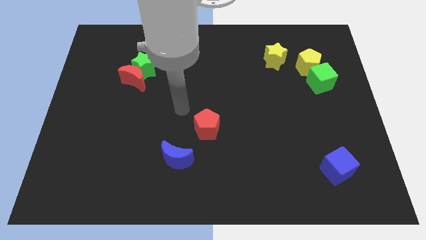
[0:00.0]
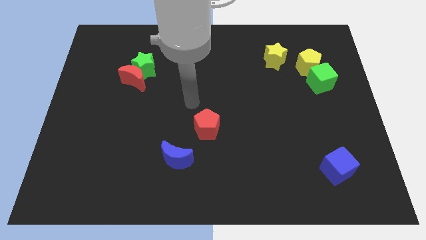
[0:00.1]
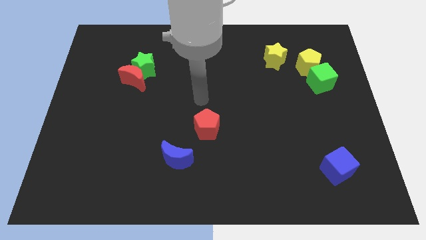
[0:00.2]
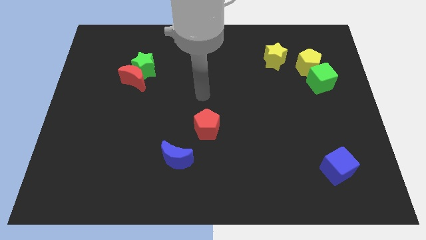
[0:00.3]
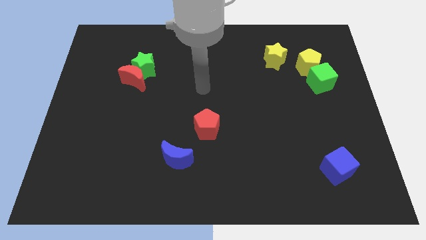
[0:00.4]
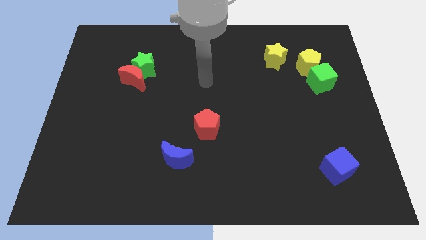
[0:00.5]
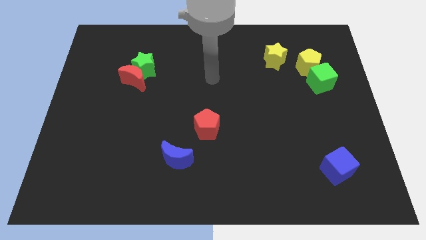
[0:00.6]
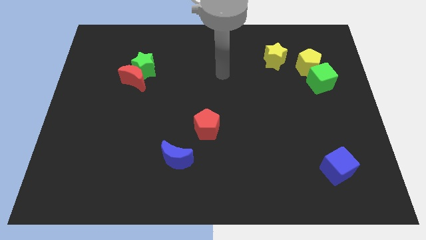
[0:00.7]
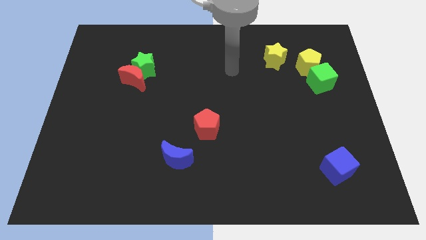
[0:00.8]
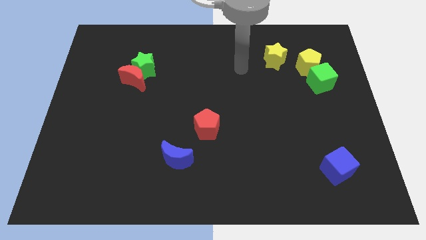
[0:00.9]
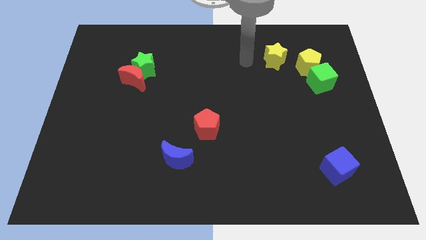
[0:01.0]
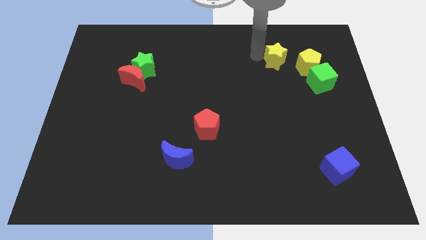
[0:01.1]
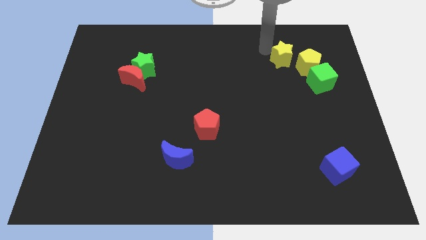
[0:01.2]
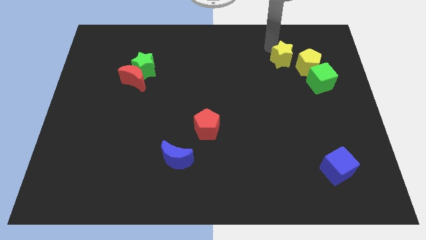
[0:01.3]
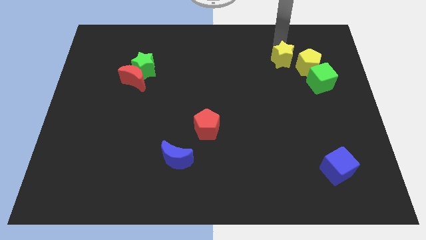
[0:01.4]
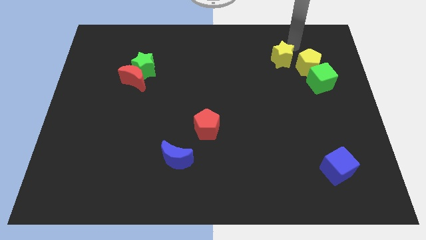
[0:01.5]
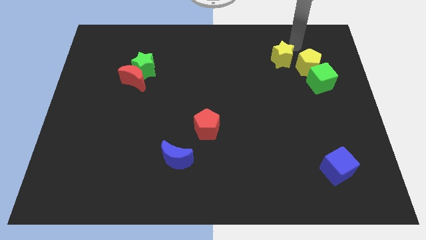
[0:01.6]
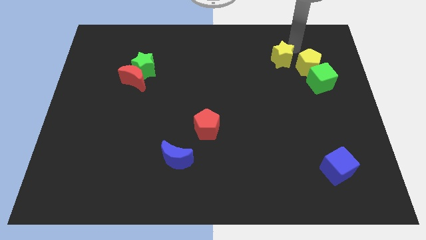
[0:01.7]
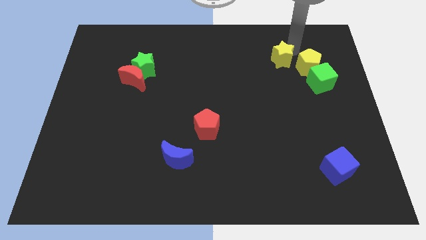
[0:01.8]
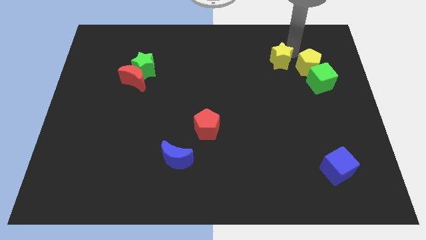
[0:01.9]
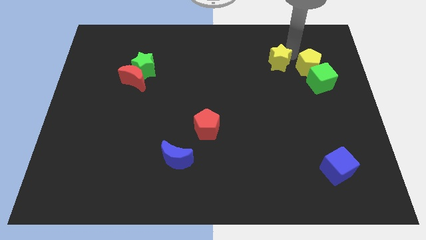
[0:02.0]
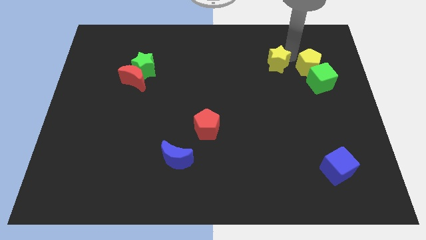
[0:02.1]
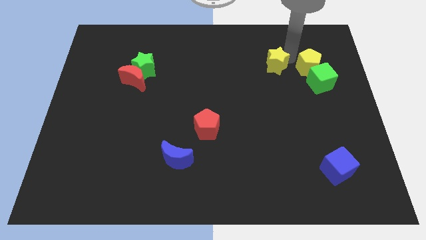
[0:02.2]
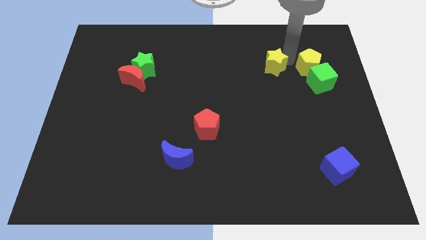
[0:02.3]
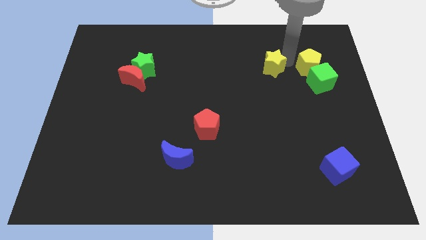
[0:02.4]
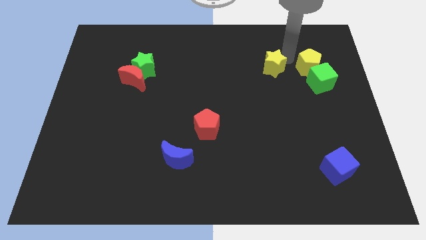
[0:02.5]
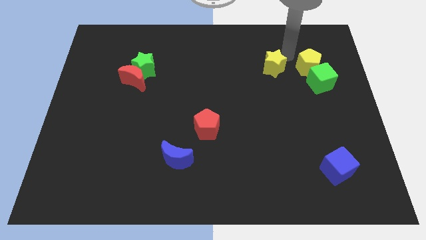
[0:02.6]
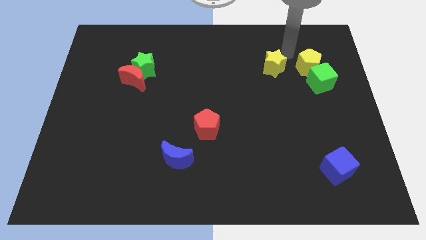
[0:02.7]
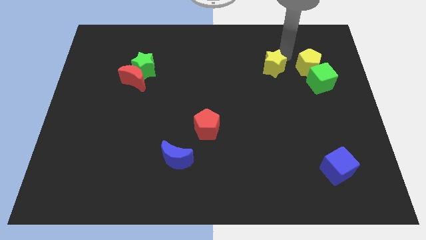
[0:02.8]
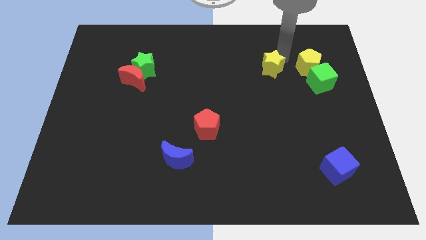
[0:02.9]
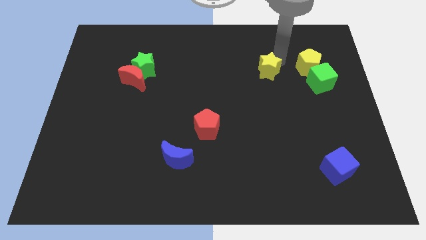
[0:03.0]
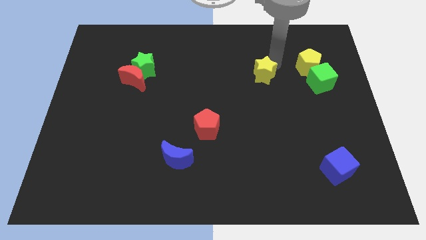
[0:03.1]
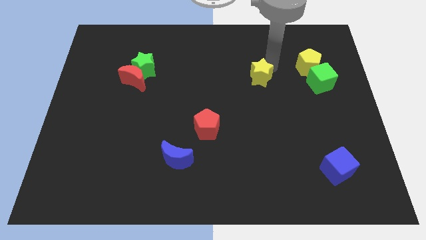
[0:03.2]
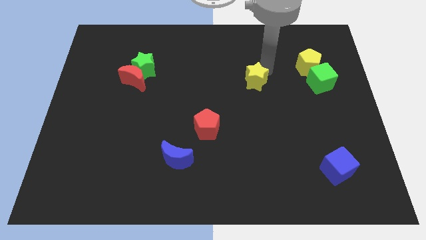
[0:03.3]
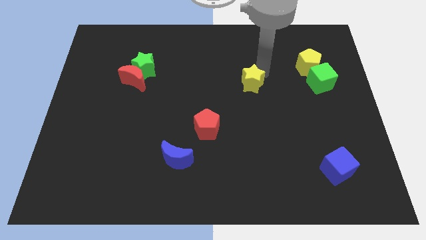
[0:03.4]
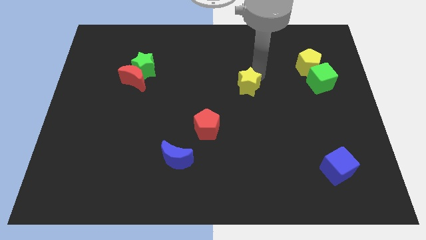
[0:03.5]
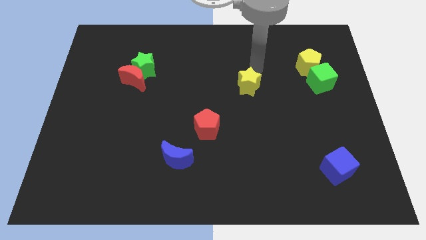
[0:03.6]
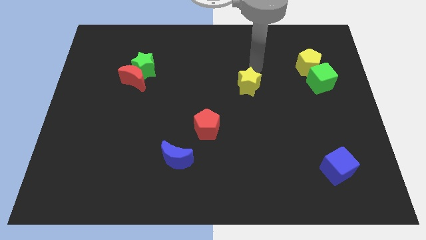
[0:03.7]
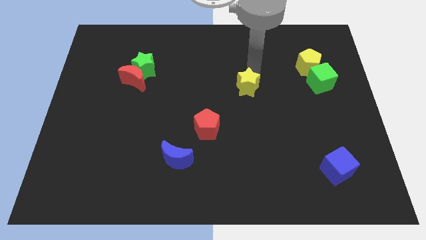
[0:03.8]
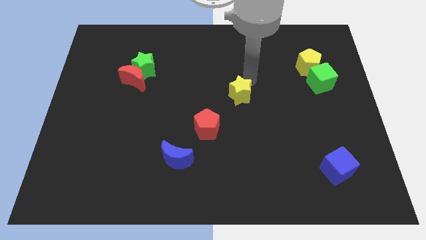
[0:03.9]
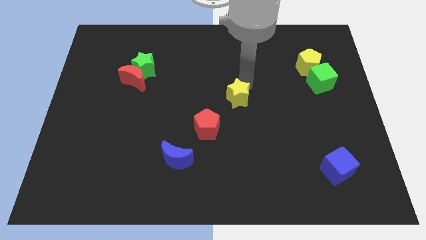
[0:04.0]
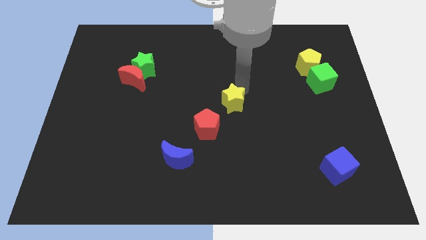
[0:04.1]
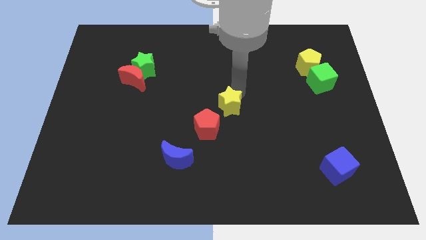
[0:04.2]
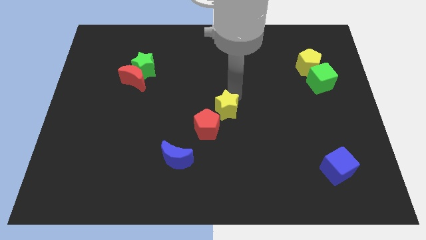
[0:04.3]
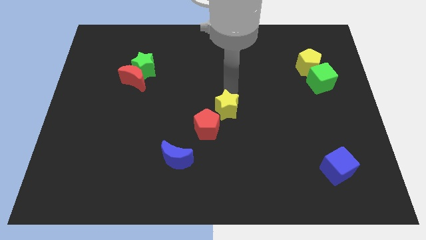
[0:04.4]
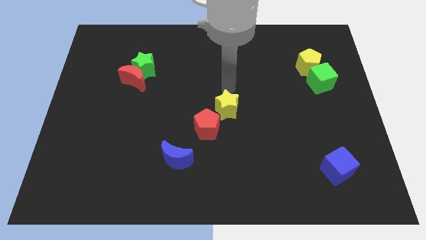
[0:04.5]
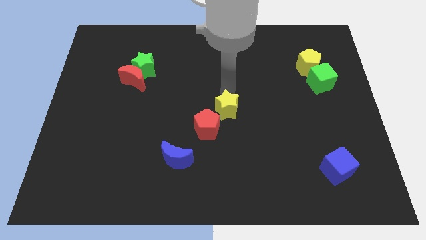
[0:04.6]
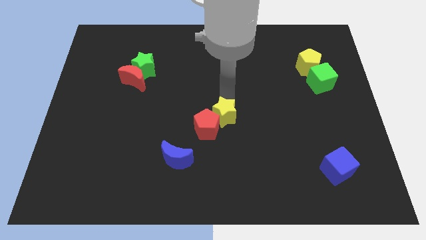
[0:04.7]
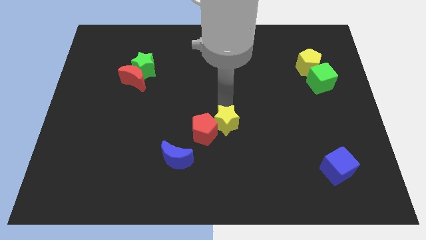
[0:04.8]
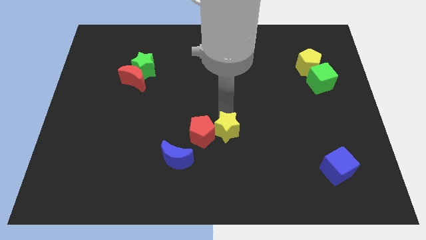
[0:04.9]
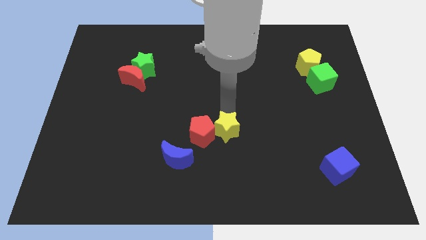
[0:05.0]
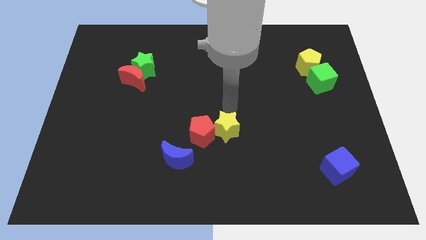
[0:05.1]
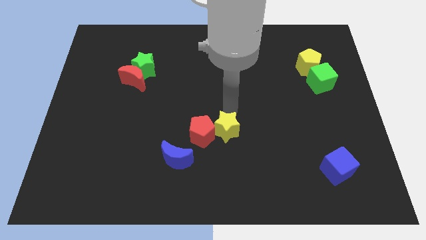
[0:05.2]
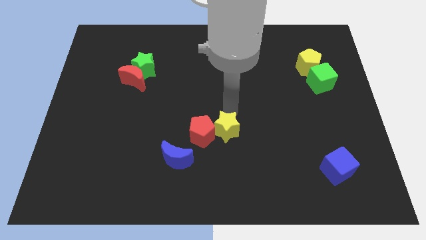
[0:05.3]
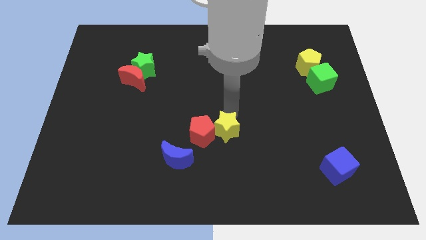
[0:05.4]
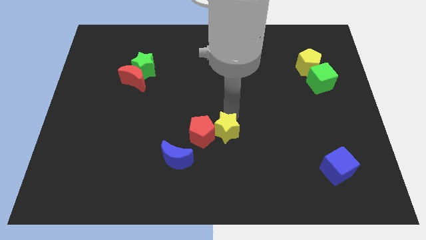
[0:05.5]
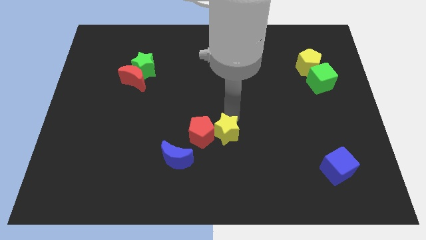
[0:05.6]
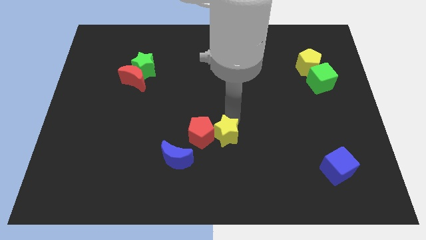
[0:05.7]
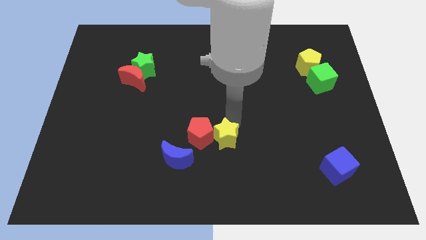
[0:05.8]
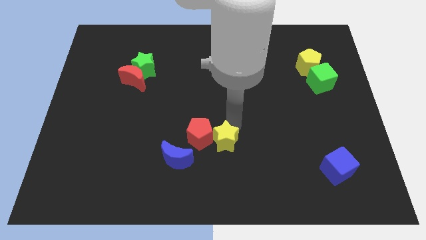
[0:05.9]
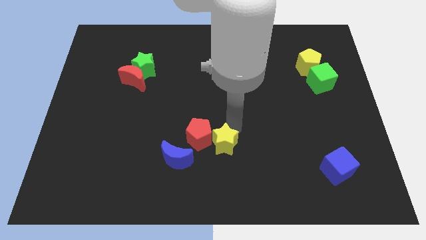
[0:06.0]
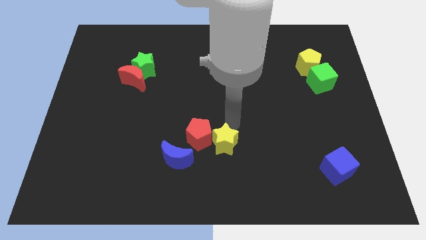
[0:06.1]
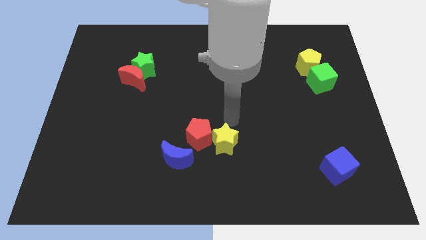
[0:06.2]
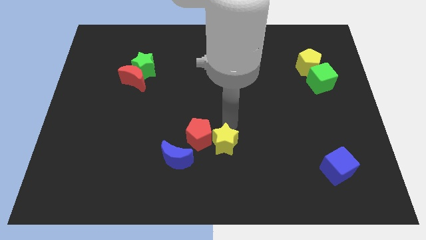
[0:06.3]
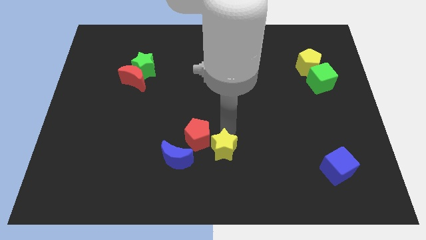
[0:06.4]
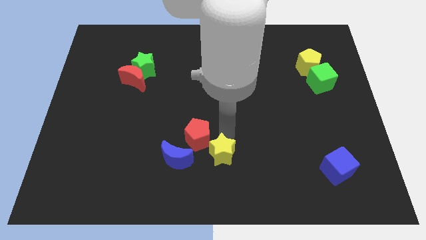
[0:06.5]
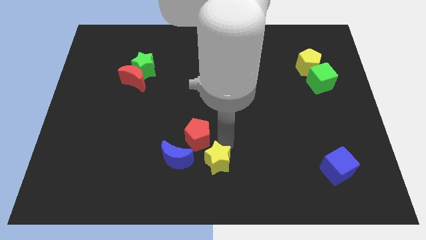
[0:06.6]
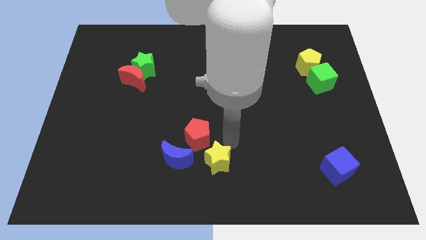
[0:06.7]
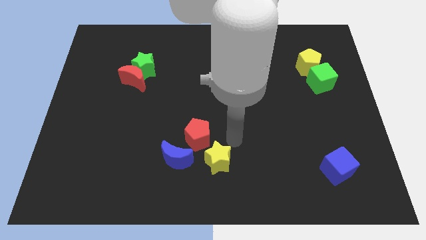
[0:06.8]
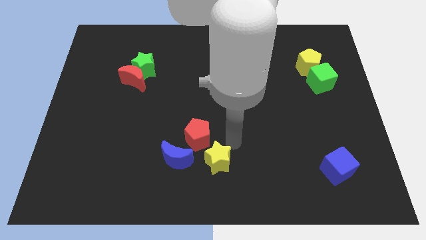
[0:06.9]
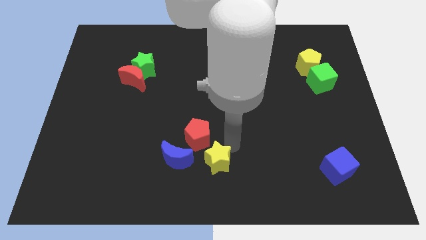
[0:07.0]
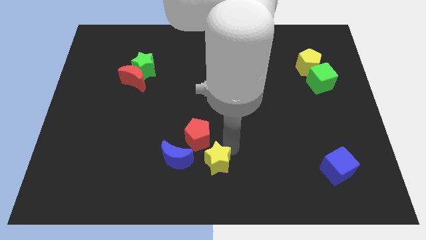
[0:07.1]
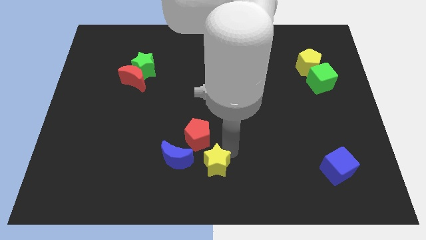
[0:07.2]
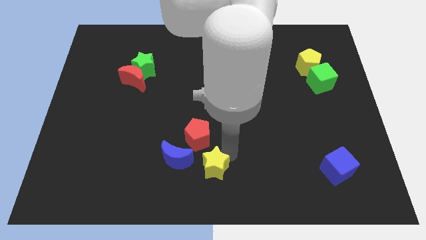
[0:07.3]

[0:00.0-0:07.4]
slide the yellow star to the bottom right of the blue moon

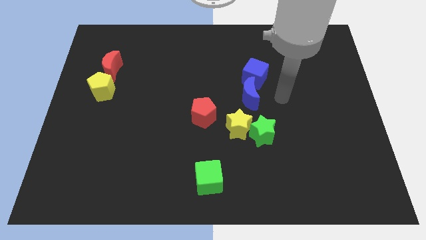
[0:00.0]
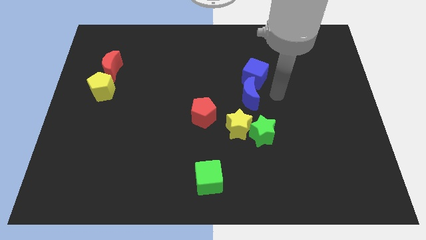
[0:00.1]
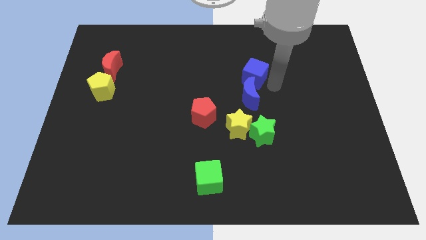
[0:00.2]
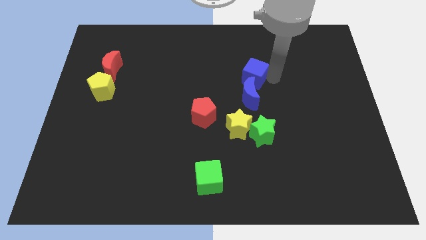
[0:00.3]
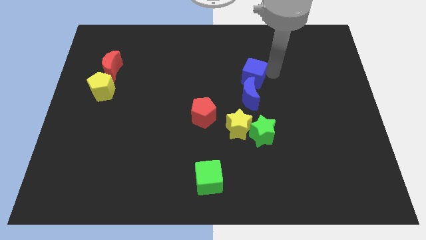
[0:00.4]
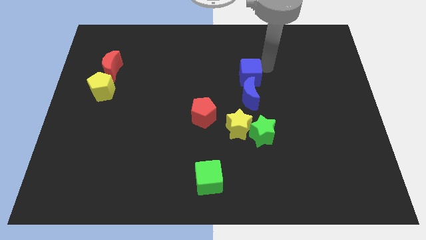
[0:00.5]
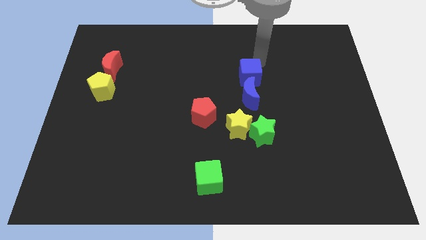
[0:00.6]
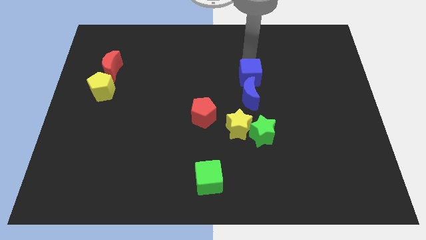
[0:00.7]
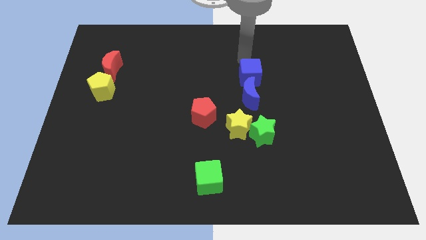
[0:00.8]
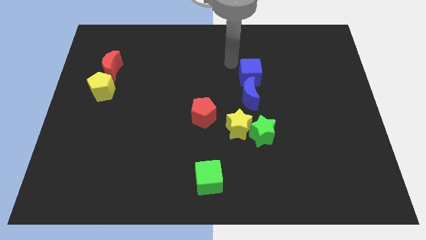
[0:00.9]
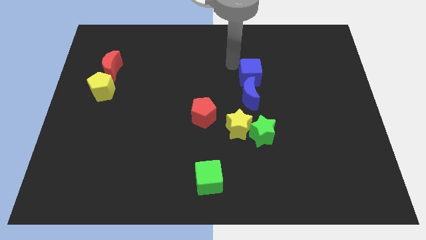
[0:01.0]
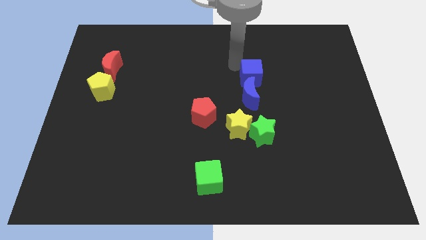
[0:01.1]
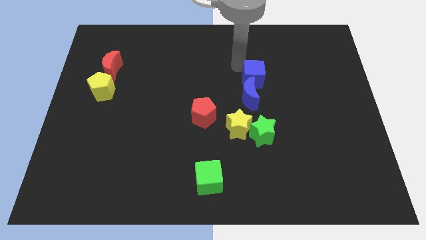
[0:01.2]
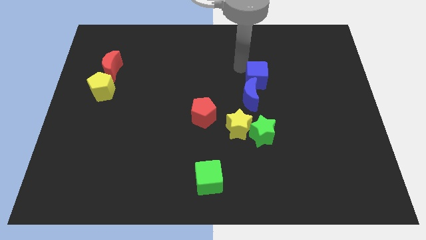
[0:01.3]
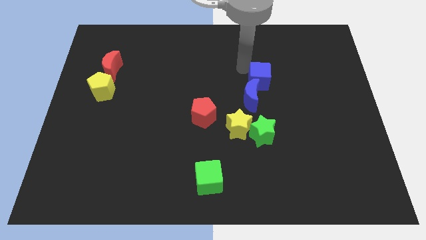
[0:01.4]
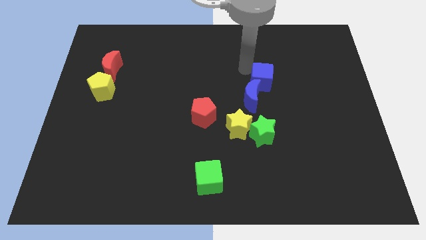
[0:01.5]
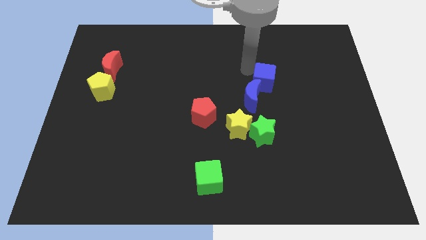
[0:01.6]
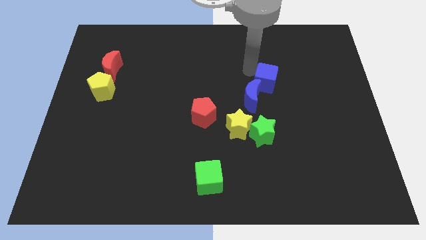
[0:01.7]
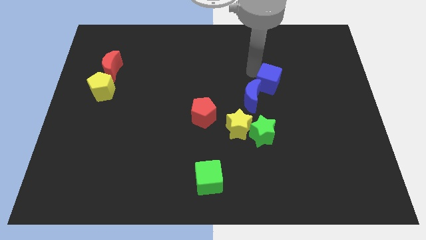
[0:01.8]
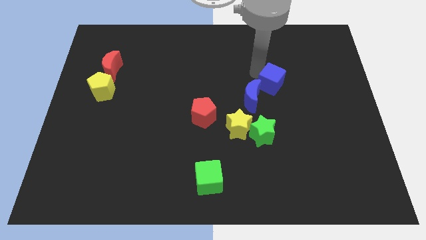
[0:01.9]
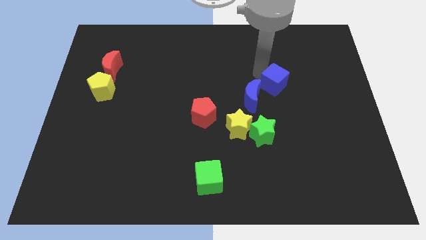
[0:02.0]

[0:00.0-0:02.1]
move the blue cube right of the blue moon
